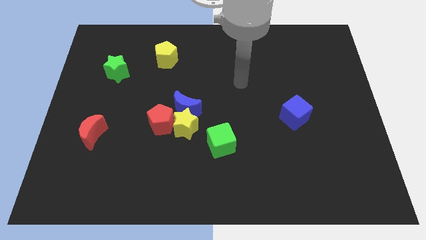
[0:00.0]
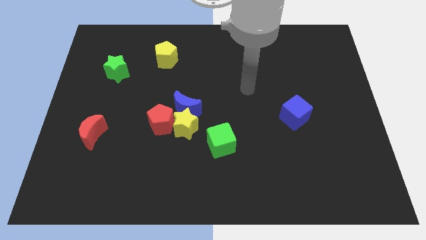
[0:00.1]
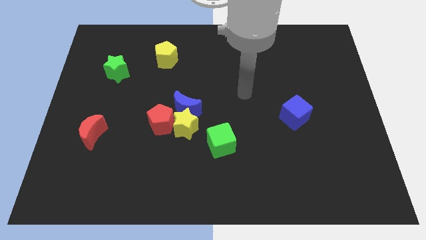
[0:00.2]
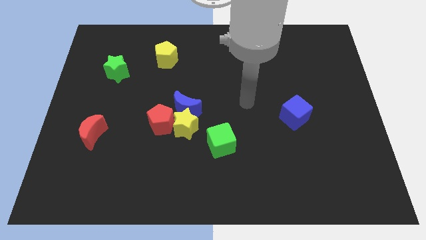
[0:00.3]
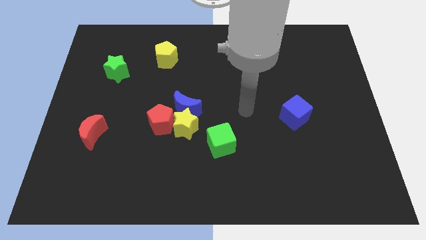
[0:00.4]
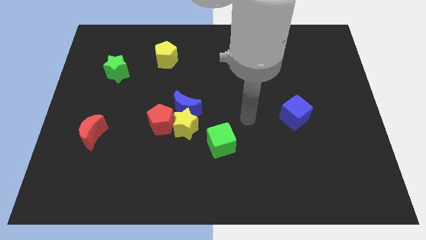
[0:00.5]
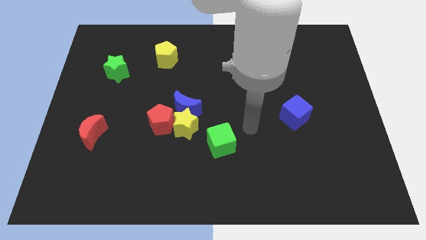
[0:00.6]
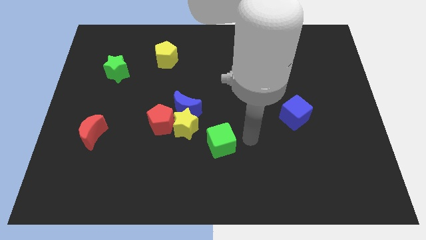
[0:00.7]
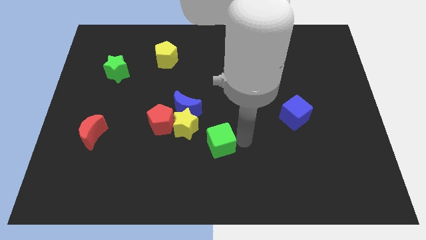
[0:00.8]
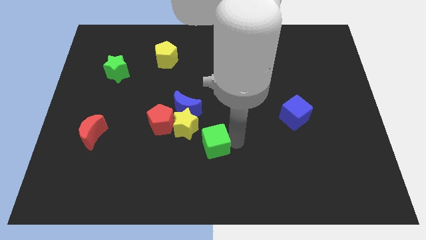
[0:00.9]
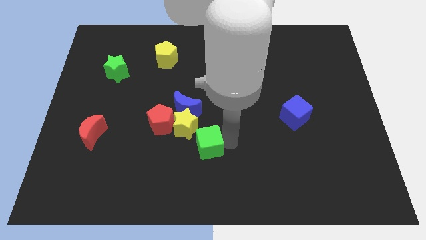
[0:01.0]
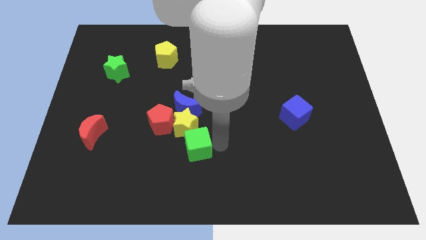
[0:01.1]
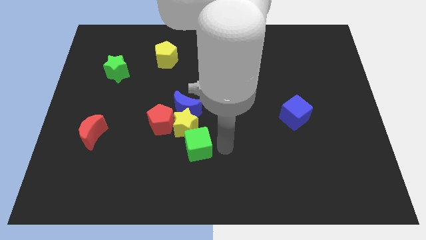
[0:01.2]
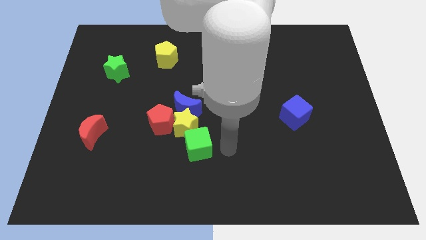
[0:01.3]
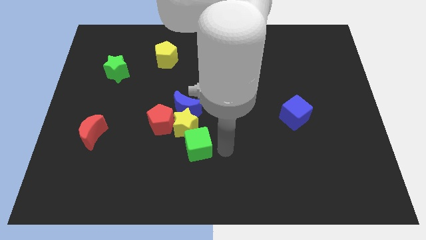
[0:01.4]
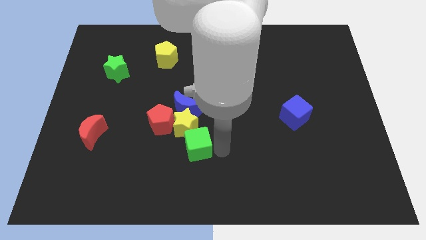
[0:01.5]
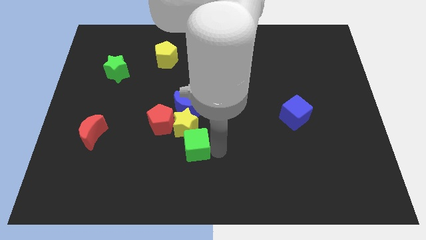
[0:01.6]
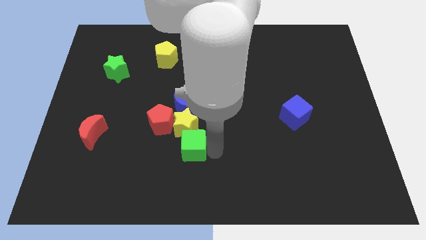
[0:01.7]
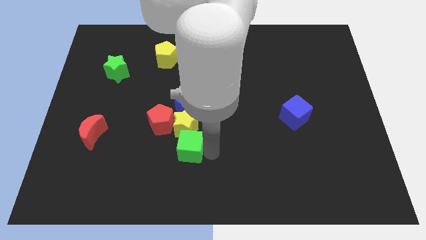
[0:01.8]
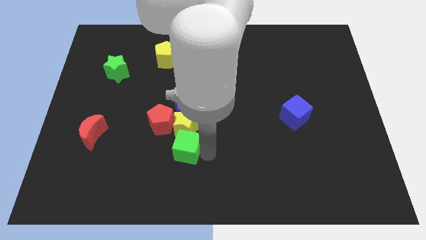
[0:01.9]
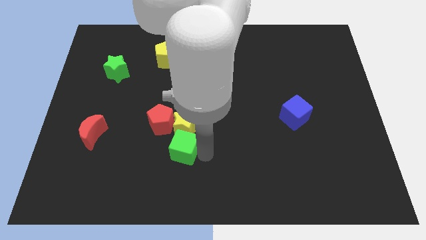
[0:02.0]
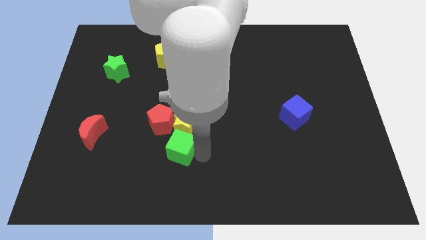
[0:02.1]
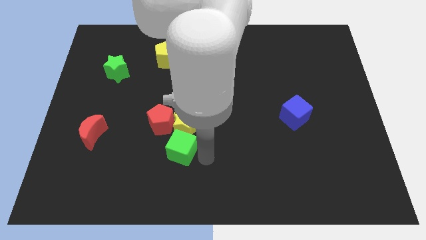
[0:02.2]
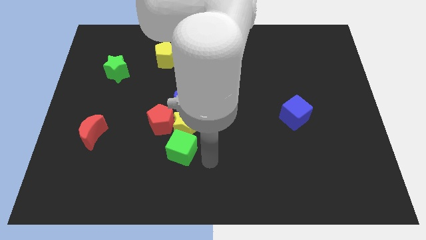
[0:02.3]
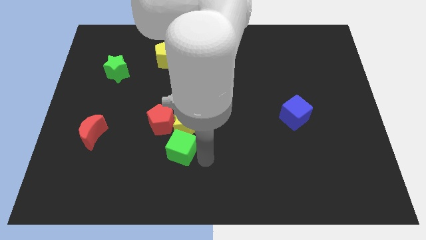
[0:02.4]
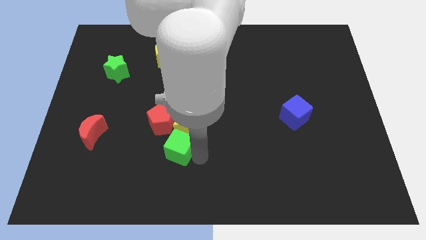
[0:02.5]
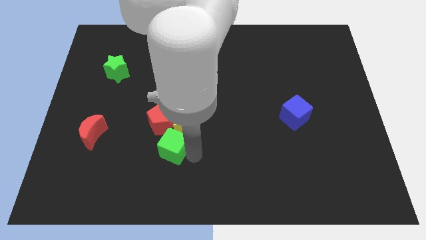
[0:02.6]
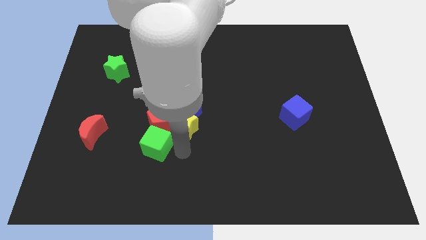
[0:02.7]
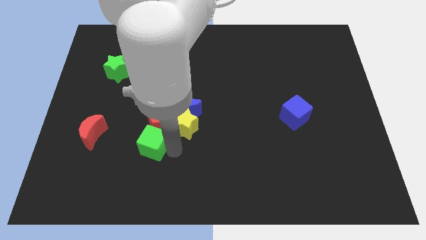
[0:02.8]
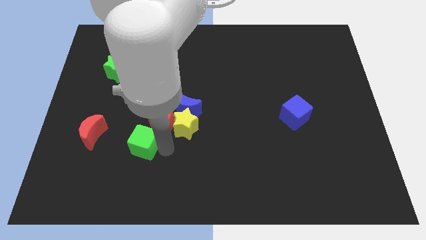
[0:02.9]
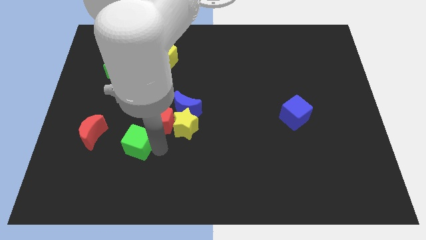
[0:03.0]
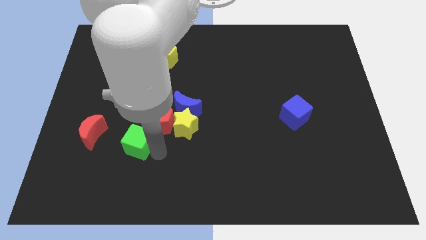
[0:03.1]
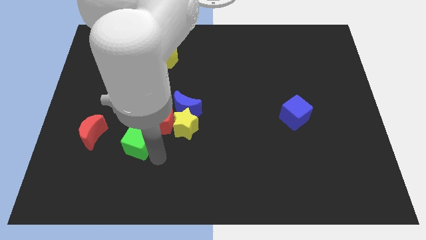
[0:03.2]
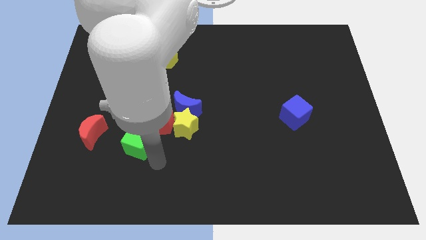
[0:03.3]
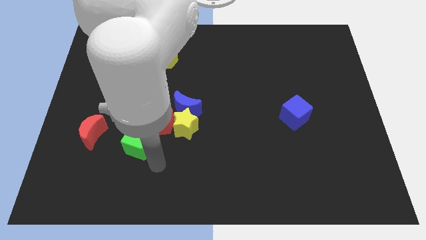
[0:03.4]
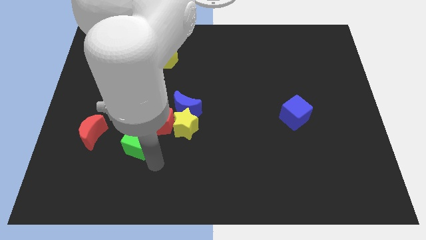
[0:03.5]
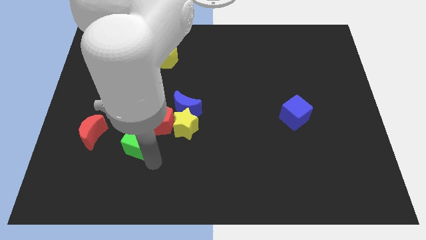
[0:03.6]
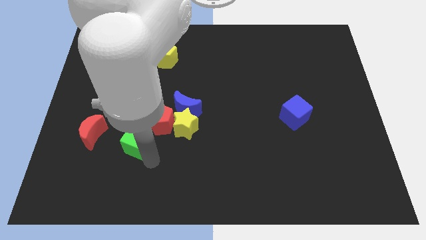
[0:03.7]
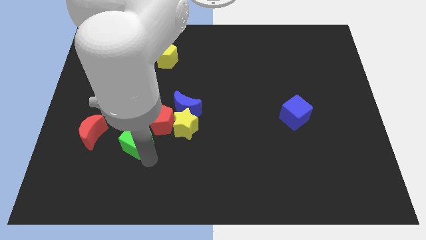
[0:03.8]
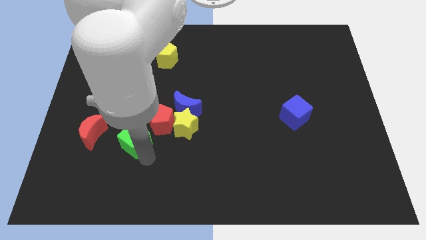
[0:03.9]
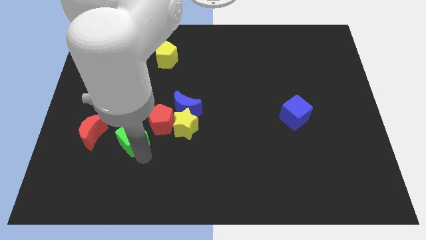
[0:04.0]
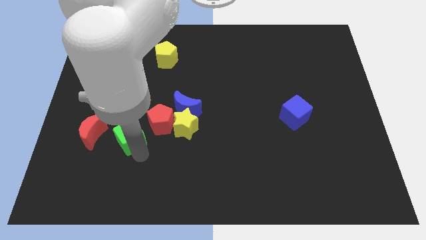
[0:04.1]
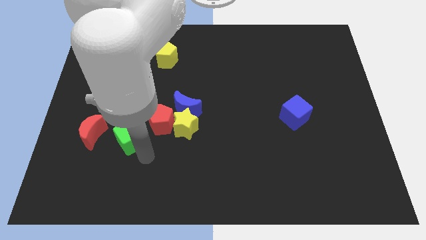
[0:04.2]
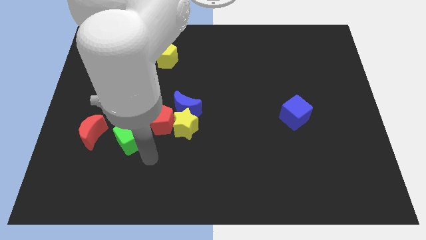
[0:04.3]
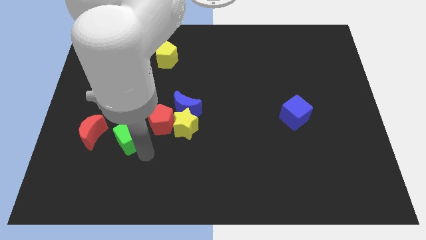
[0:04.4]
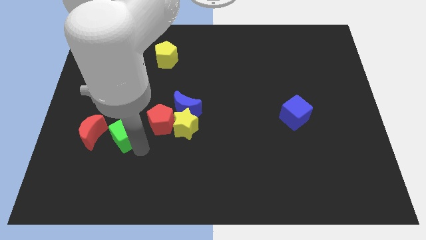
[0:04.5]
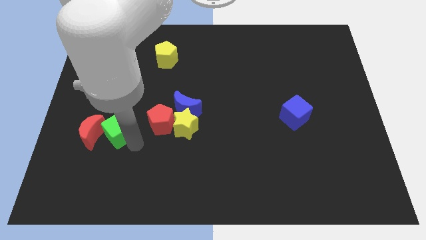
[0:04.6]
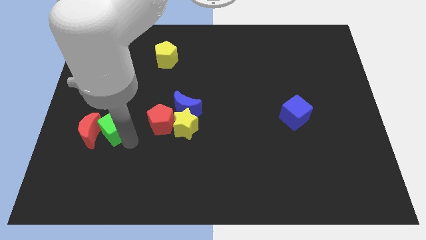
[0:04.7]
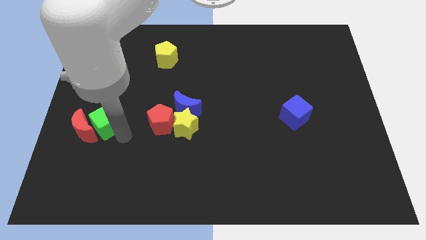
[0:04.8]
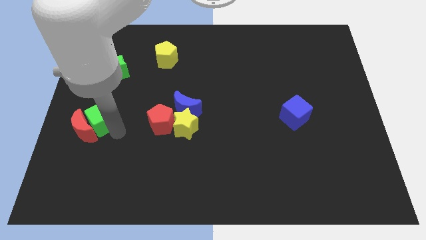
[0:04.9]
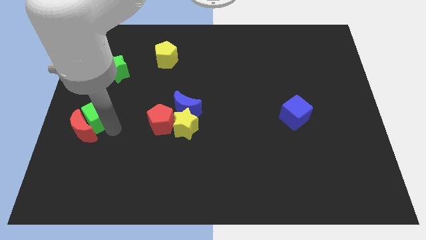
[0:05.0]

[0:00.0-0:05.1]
move the green cube to the center left

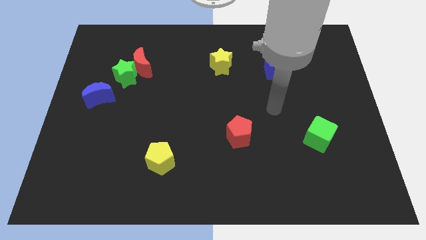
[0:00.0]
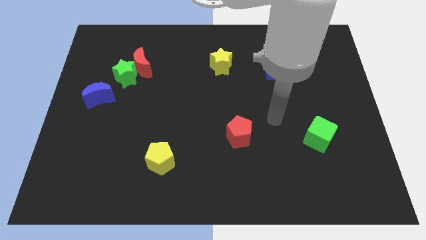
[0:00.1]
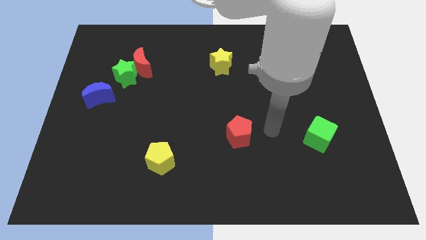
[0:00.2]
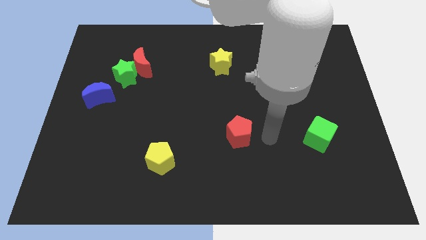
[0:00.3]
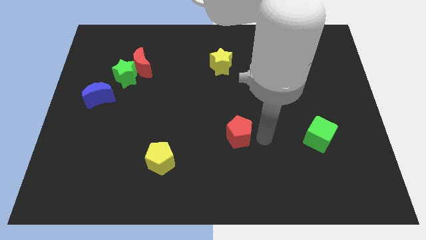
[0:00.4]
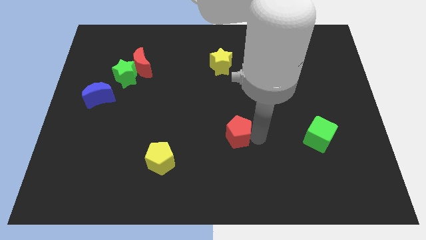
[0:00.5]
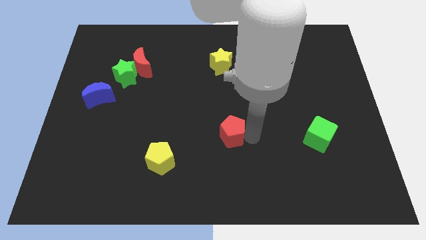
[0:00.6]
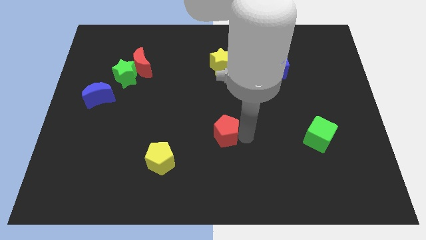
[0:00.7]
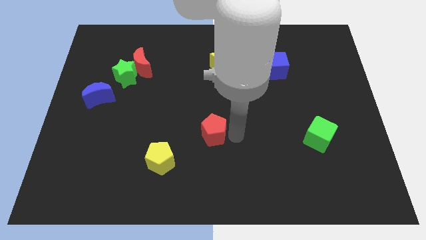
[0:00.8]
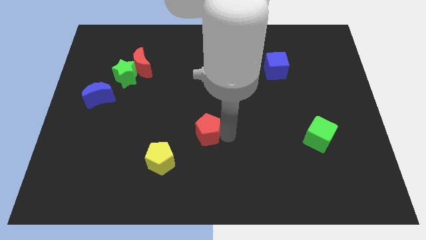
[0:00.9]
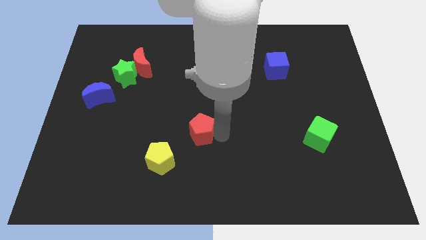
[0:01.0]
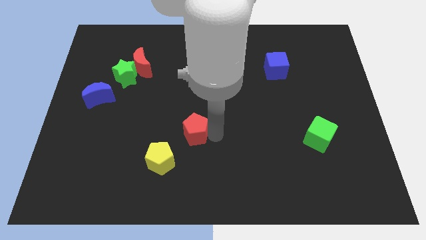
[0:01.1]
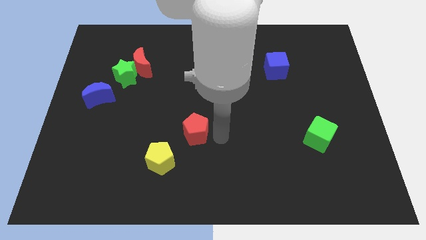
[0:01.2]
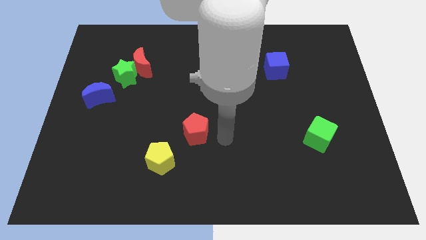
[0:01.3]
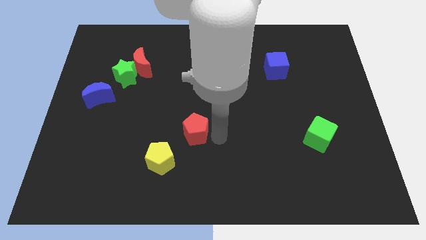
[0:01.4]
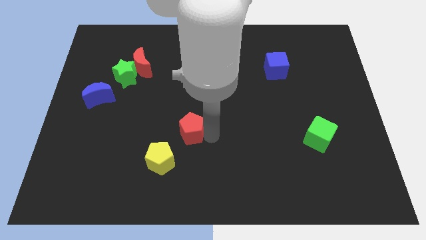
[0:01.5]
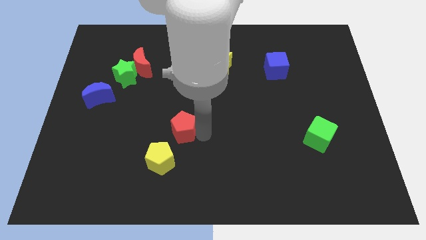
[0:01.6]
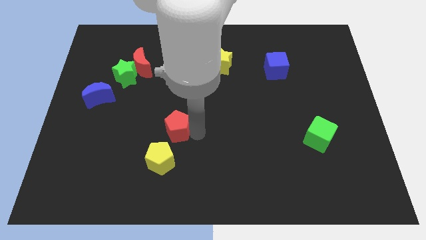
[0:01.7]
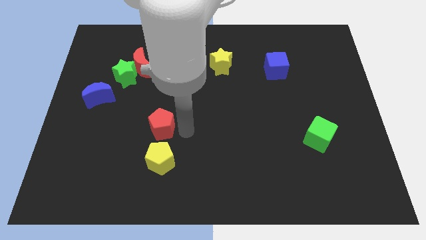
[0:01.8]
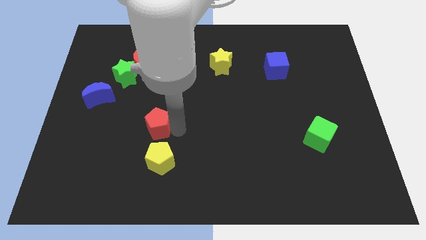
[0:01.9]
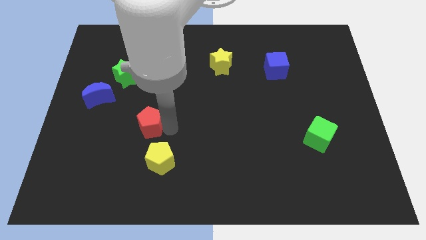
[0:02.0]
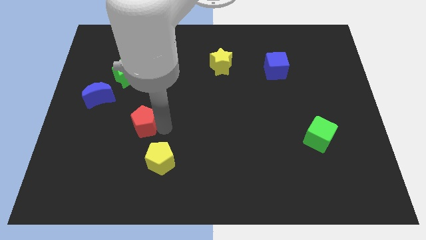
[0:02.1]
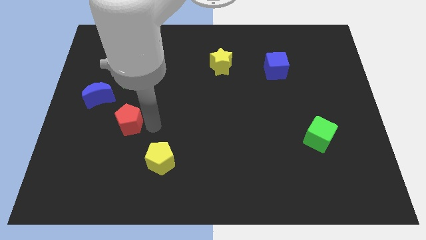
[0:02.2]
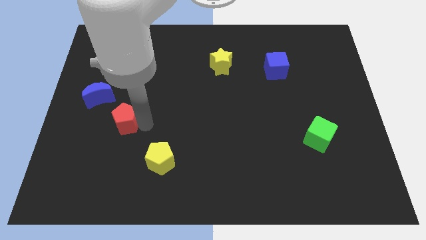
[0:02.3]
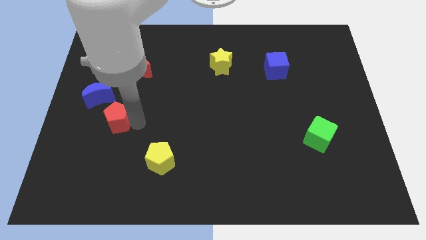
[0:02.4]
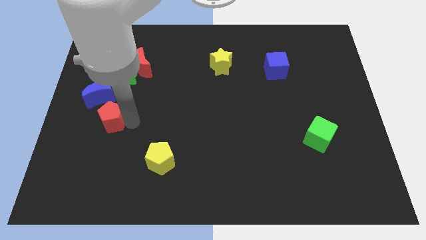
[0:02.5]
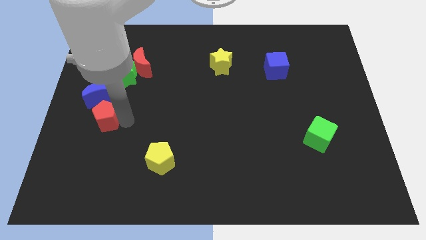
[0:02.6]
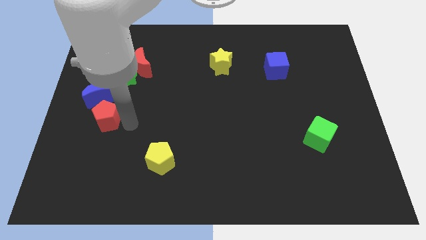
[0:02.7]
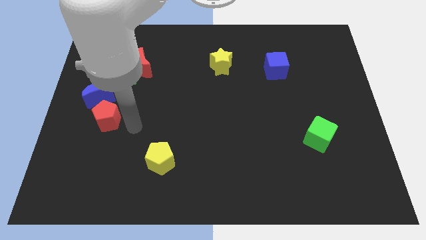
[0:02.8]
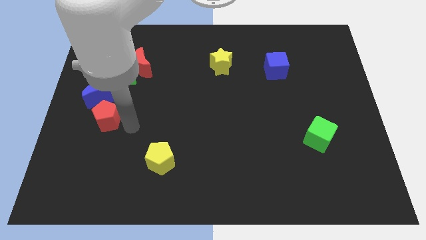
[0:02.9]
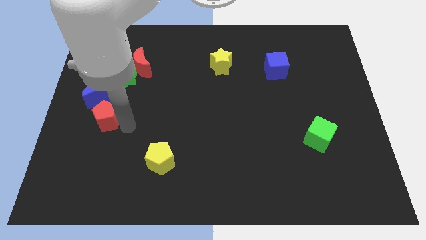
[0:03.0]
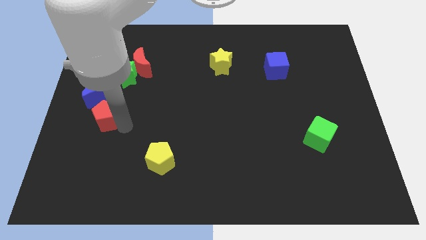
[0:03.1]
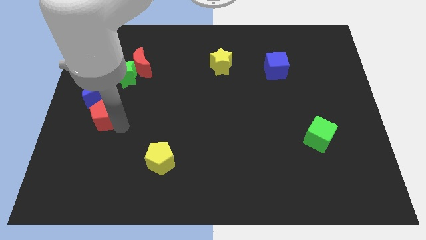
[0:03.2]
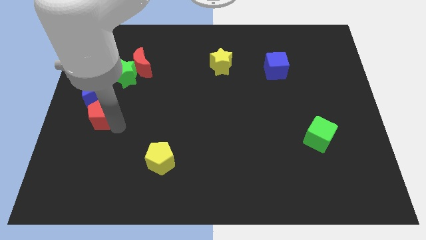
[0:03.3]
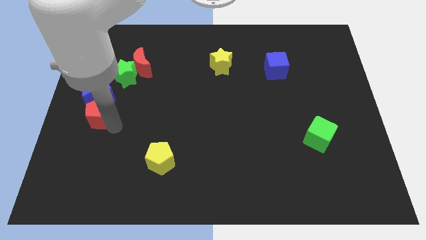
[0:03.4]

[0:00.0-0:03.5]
slide the red pentagon to the left side of the board
